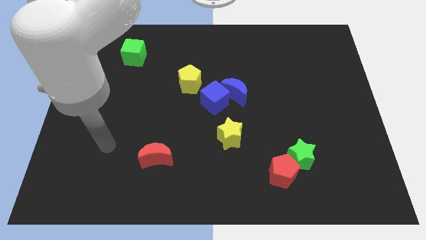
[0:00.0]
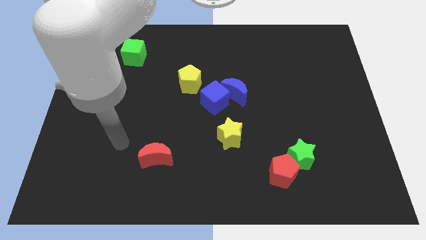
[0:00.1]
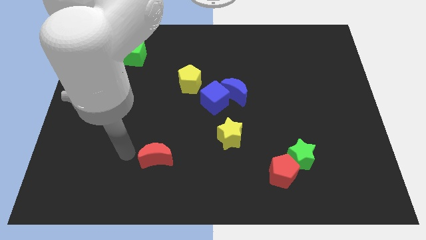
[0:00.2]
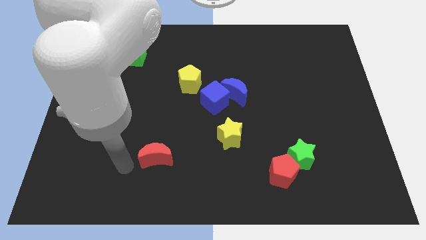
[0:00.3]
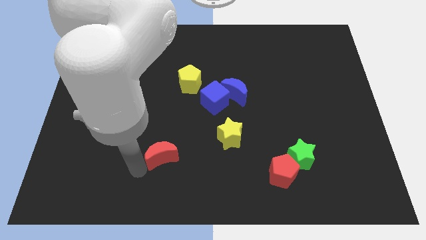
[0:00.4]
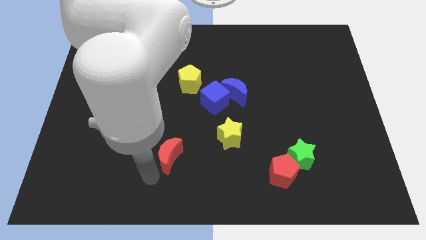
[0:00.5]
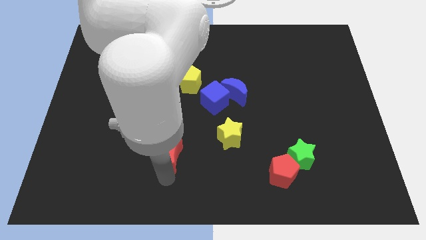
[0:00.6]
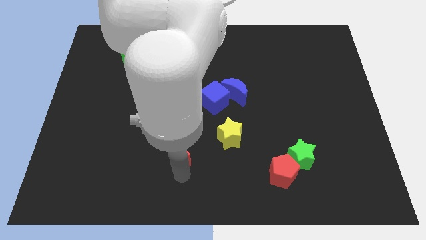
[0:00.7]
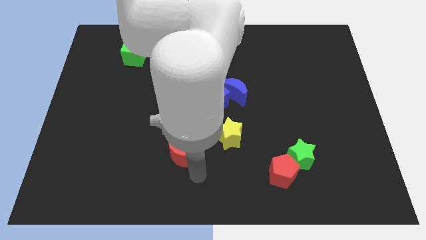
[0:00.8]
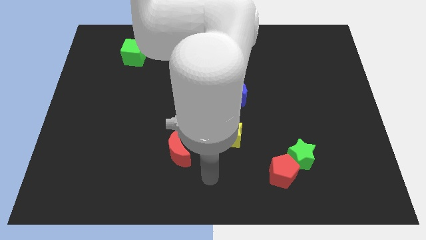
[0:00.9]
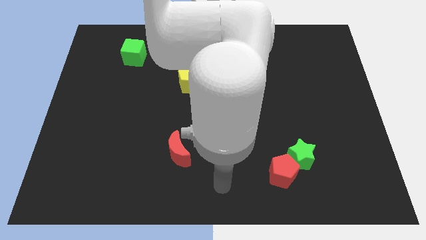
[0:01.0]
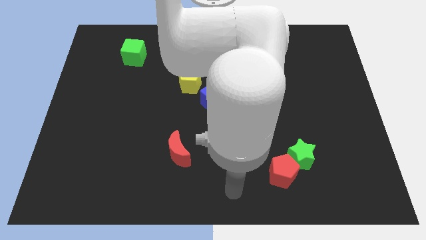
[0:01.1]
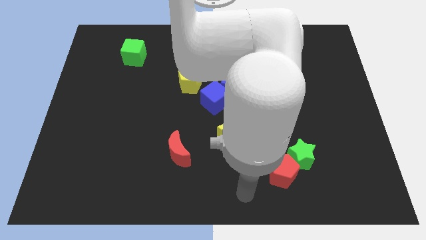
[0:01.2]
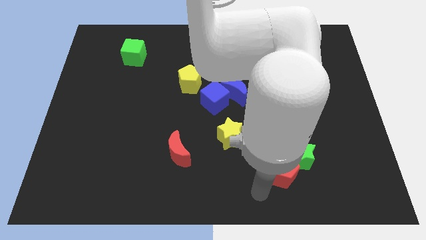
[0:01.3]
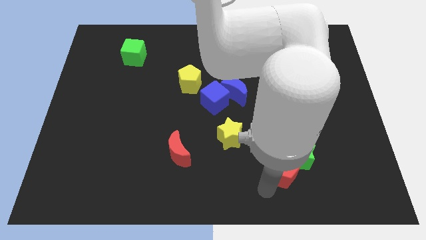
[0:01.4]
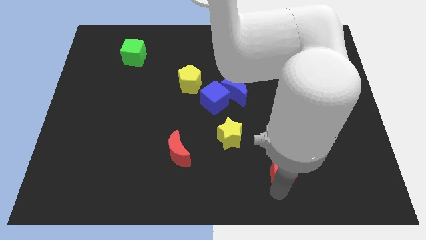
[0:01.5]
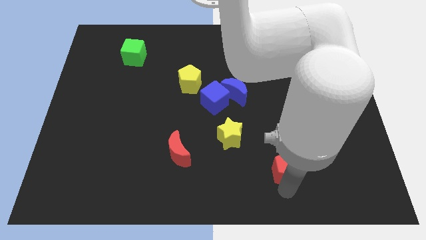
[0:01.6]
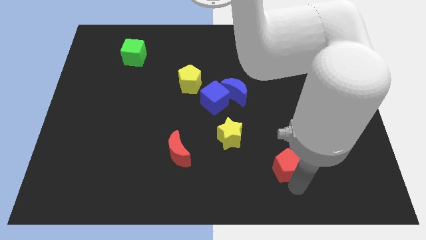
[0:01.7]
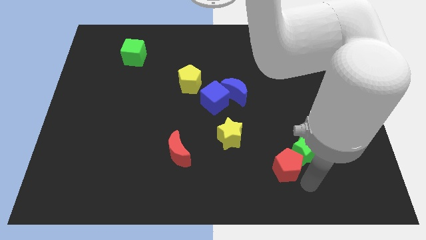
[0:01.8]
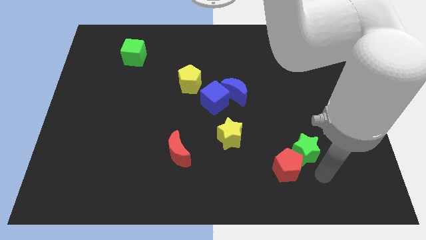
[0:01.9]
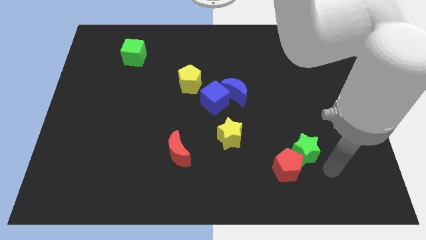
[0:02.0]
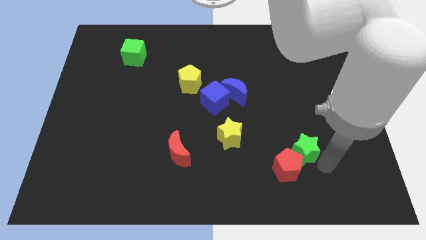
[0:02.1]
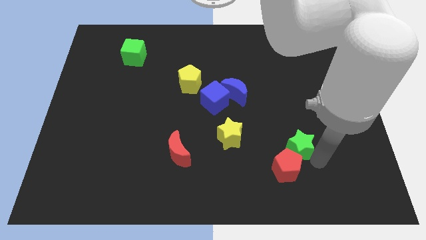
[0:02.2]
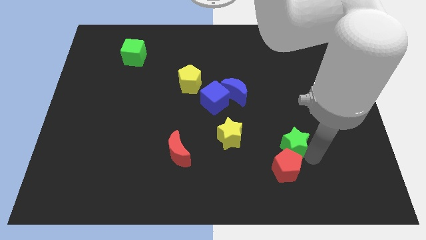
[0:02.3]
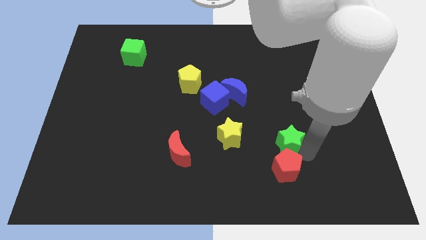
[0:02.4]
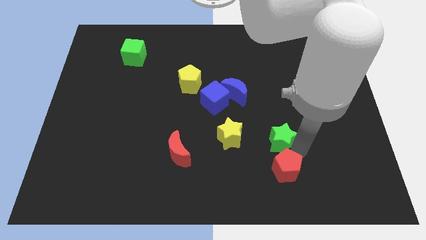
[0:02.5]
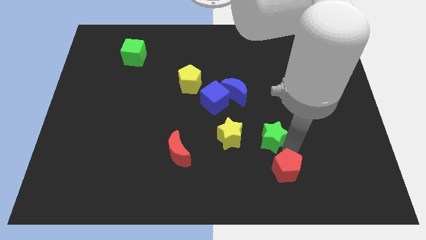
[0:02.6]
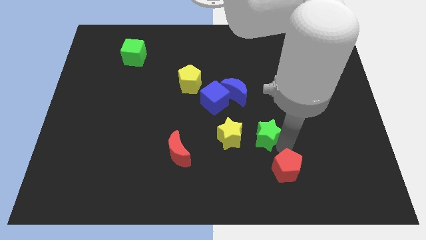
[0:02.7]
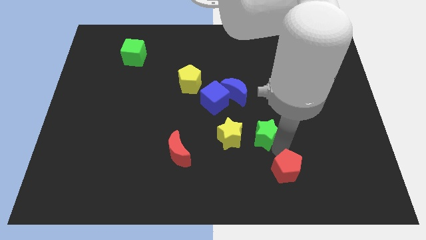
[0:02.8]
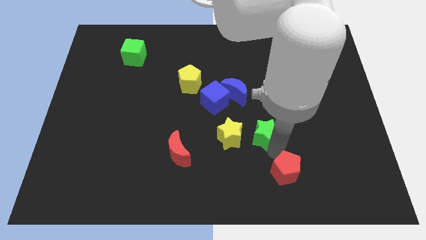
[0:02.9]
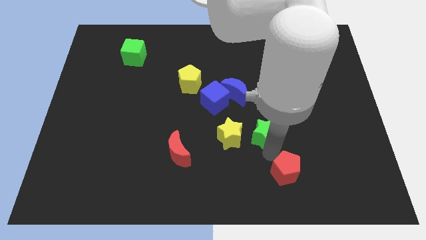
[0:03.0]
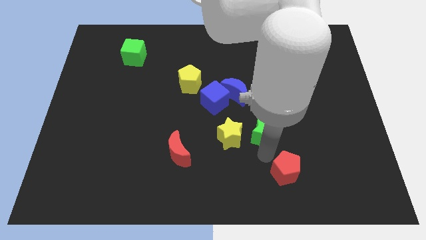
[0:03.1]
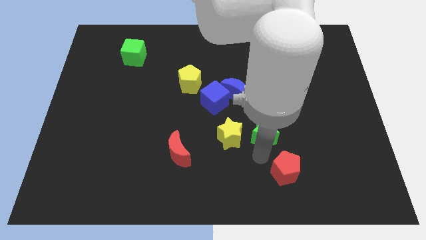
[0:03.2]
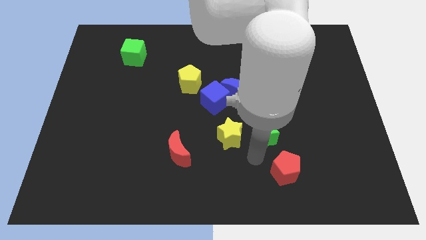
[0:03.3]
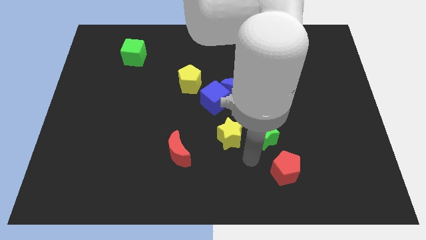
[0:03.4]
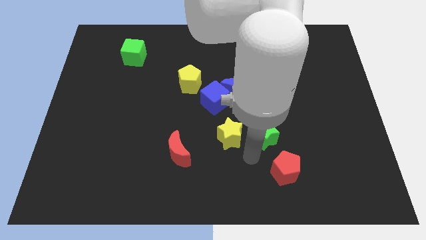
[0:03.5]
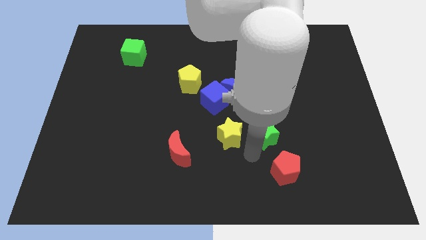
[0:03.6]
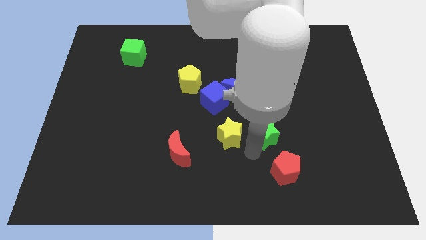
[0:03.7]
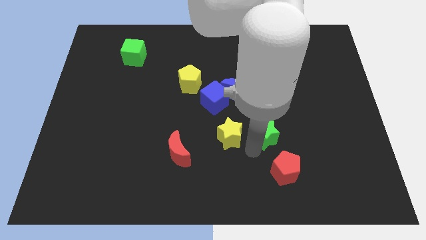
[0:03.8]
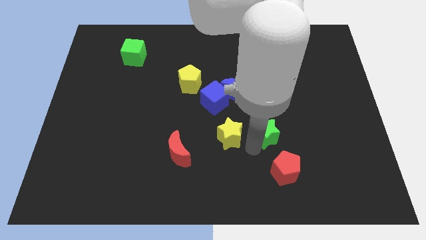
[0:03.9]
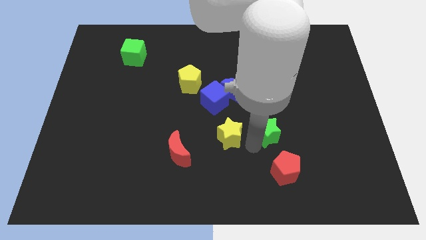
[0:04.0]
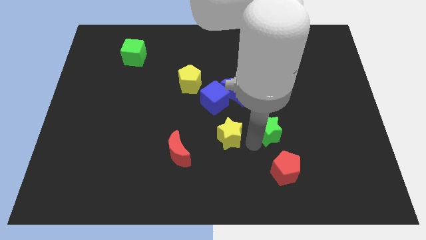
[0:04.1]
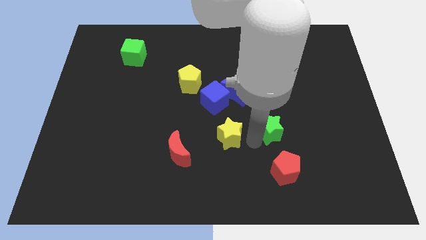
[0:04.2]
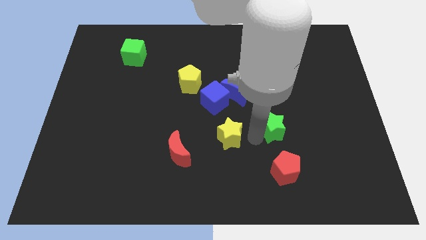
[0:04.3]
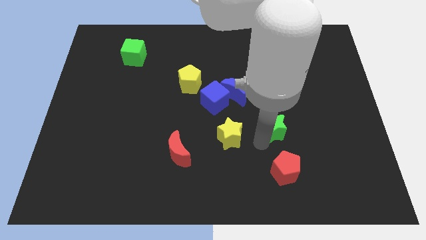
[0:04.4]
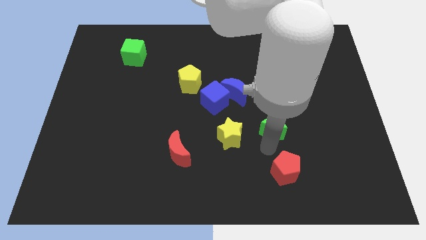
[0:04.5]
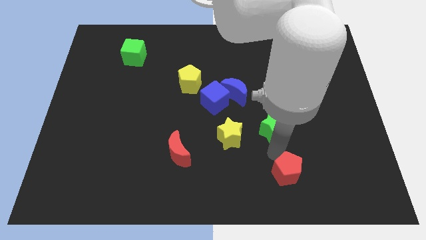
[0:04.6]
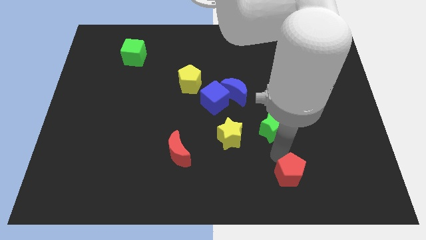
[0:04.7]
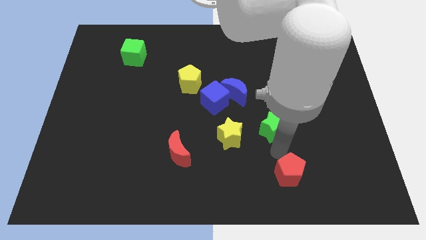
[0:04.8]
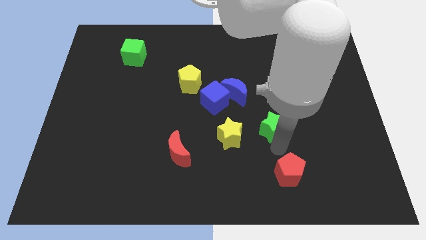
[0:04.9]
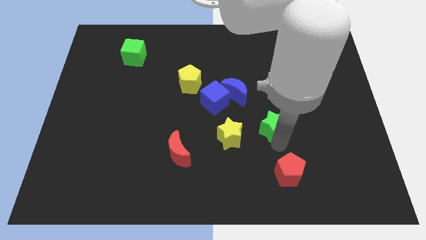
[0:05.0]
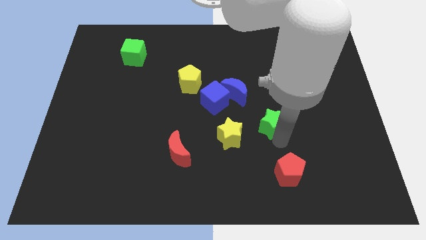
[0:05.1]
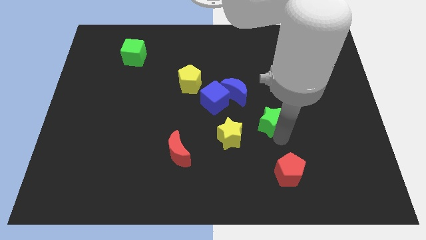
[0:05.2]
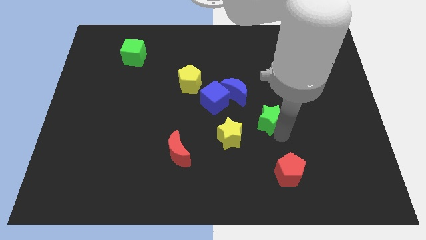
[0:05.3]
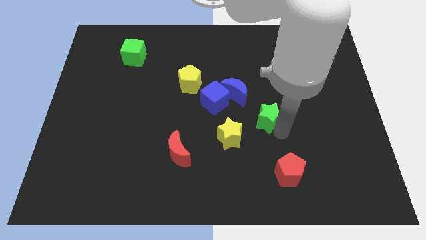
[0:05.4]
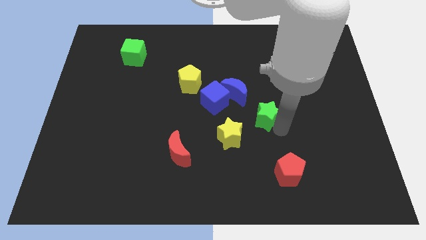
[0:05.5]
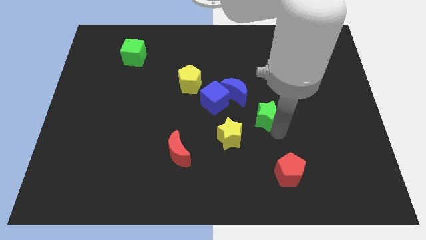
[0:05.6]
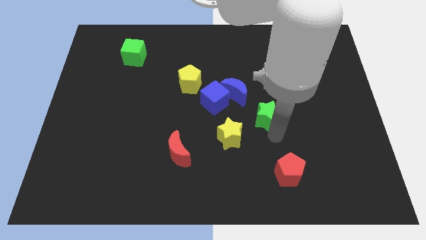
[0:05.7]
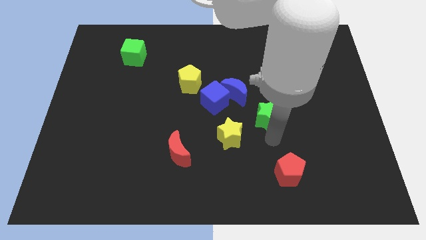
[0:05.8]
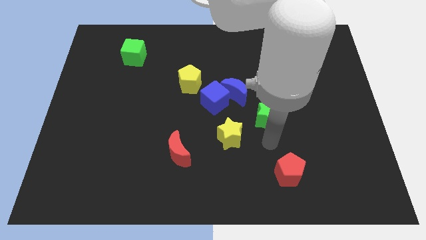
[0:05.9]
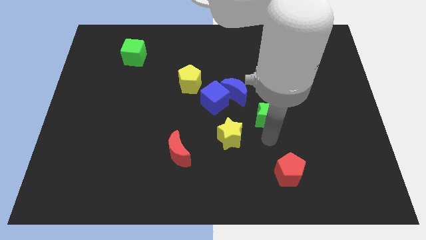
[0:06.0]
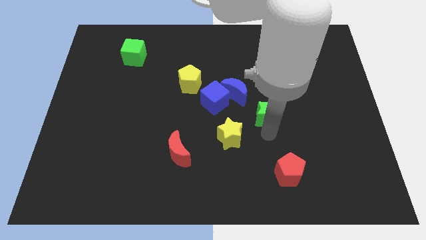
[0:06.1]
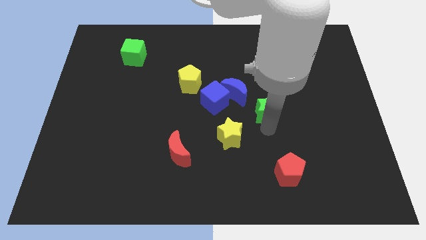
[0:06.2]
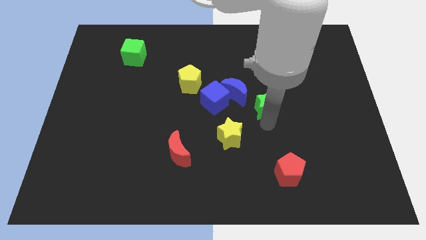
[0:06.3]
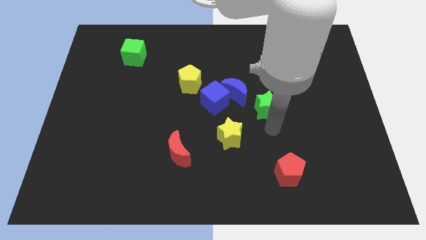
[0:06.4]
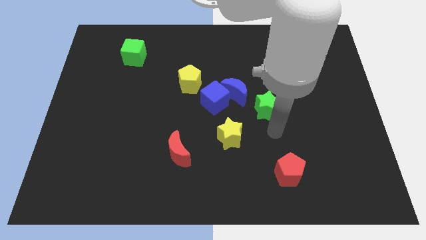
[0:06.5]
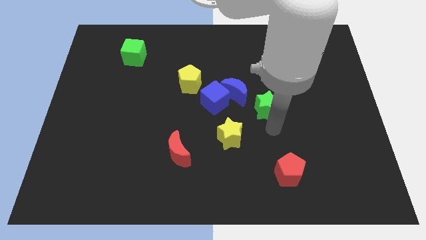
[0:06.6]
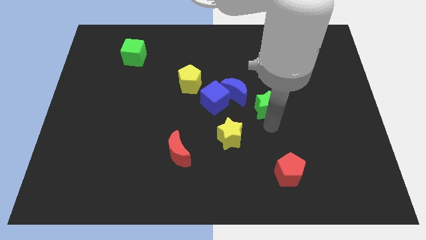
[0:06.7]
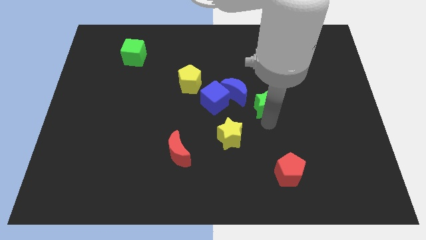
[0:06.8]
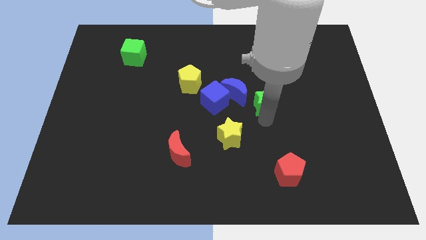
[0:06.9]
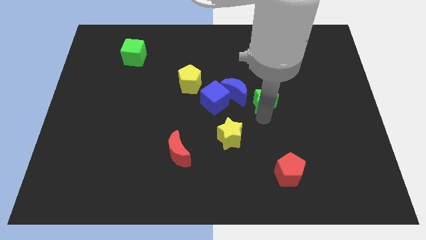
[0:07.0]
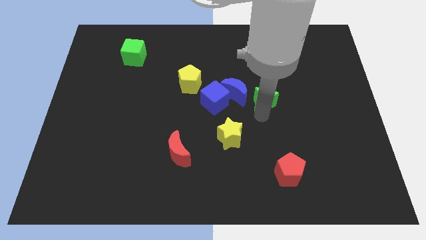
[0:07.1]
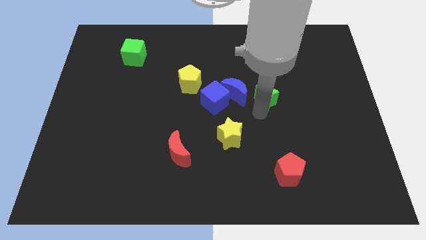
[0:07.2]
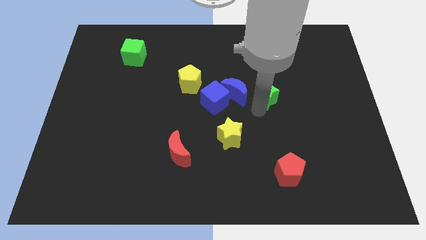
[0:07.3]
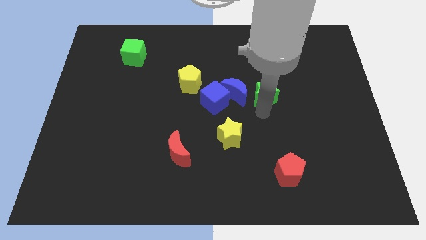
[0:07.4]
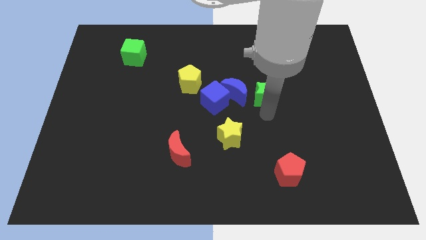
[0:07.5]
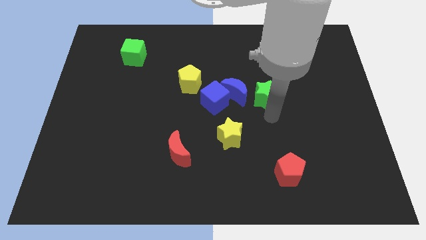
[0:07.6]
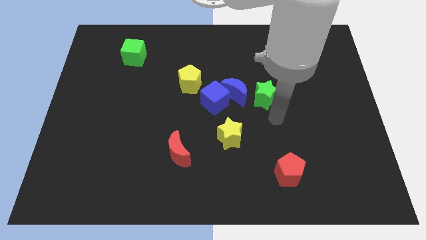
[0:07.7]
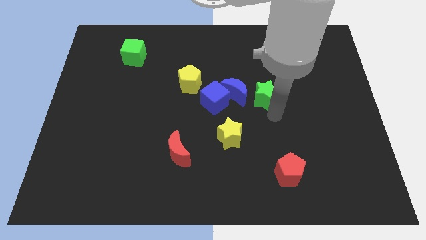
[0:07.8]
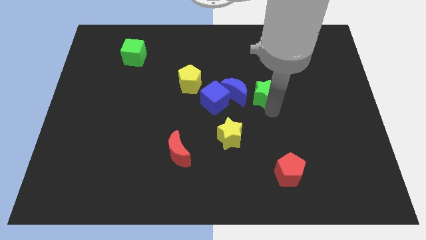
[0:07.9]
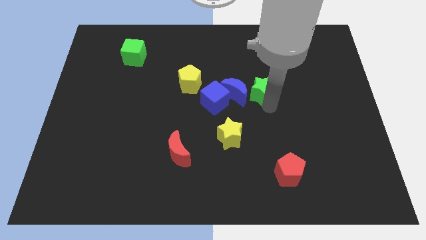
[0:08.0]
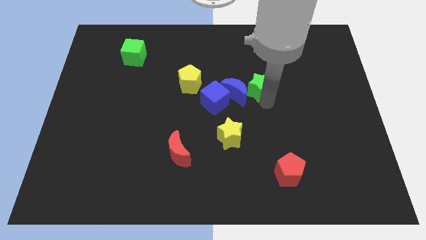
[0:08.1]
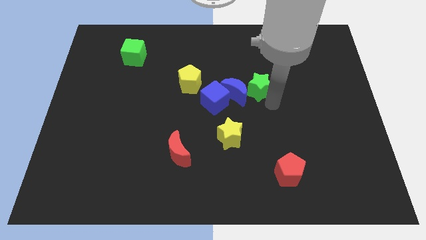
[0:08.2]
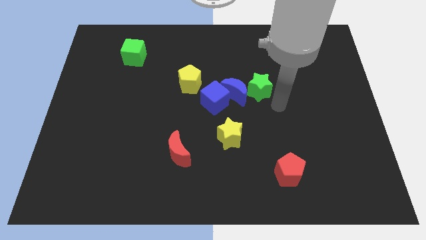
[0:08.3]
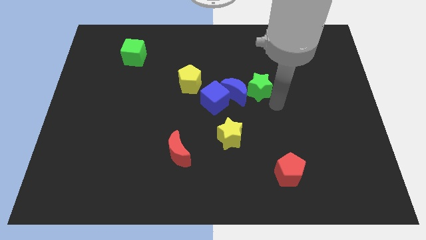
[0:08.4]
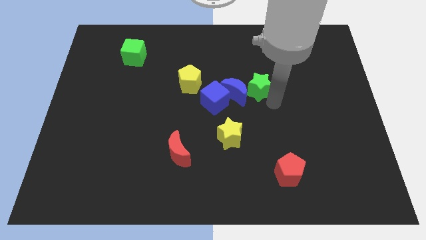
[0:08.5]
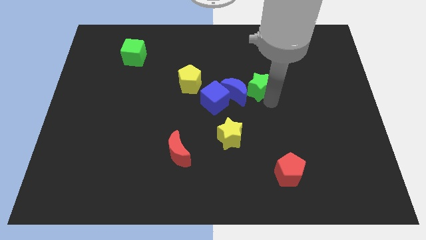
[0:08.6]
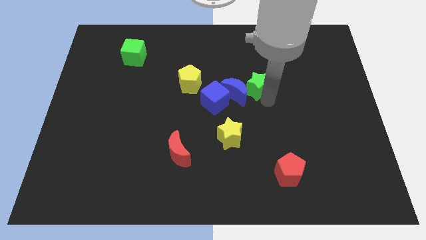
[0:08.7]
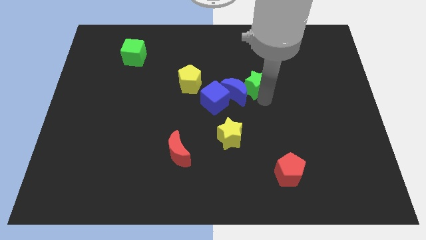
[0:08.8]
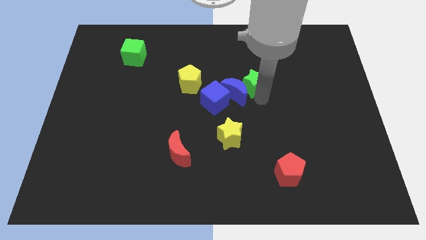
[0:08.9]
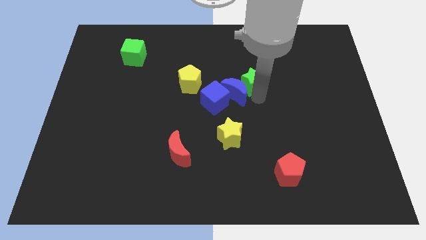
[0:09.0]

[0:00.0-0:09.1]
push the green star to the top of the blue moon
